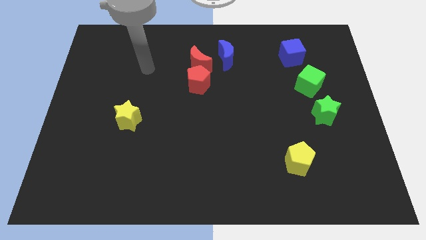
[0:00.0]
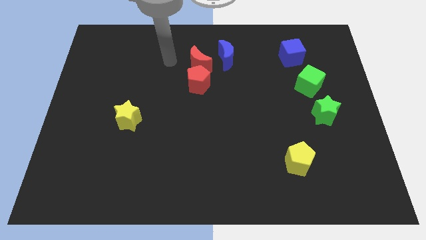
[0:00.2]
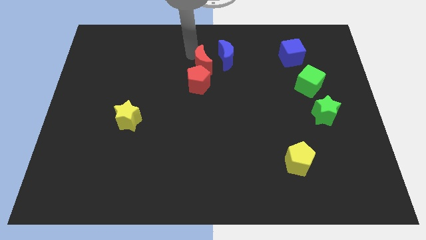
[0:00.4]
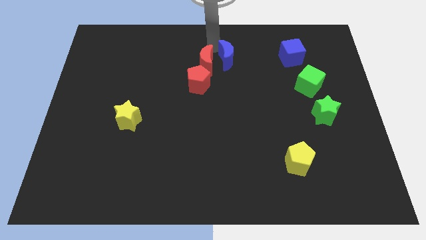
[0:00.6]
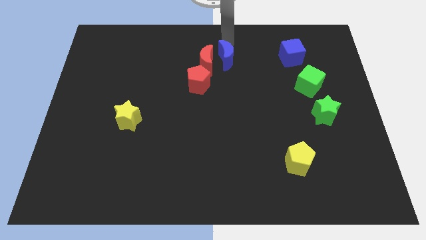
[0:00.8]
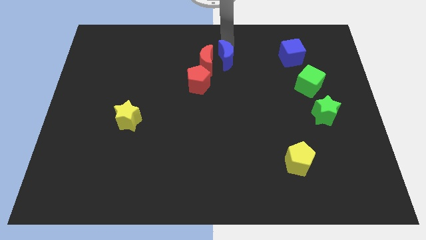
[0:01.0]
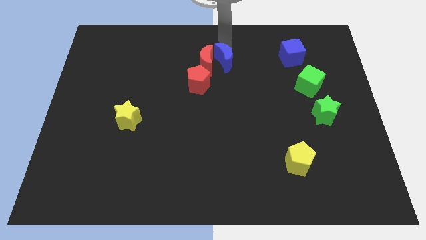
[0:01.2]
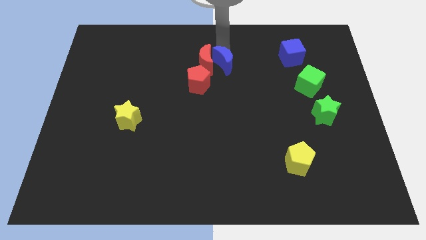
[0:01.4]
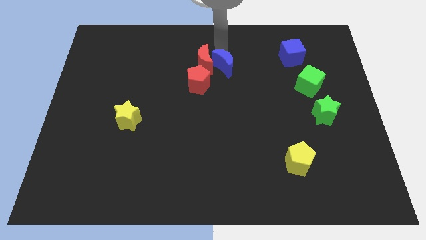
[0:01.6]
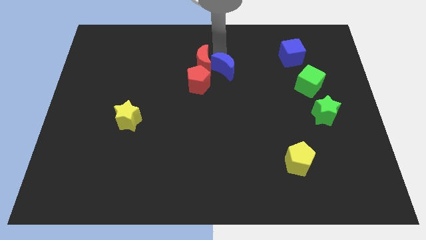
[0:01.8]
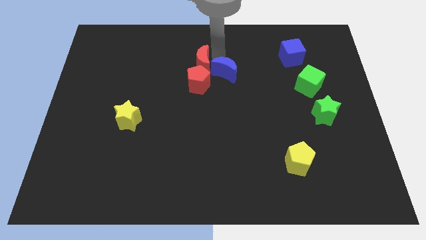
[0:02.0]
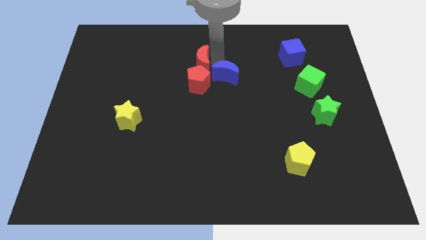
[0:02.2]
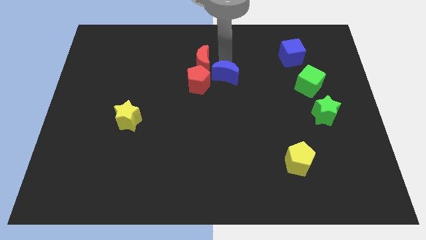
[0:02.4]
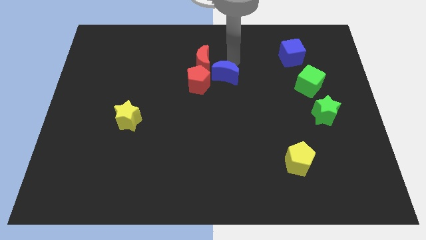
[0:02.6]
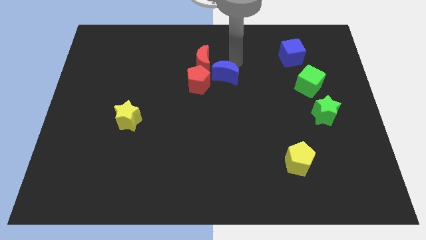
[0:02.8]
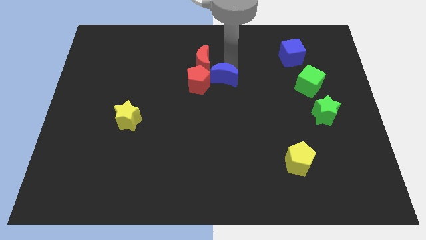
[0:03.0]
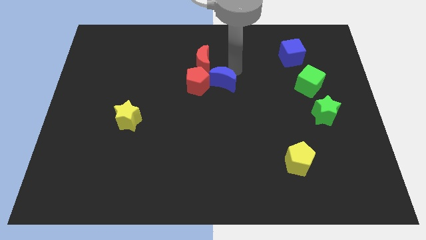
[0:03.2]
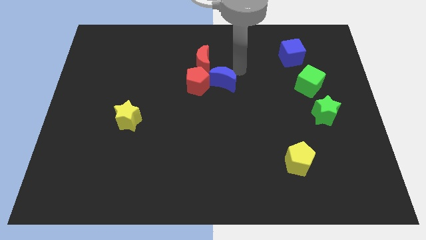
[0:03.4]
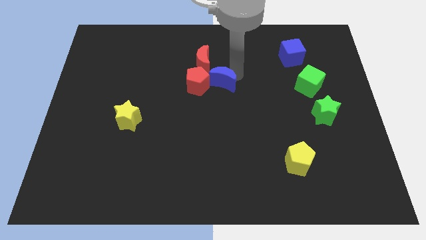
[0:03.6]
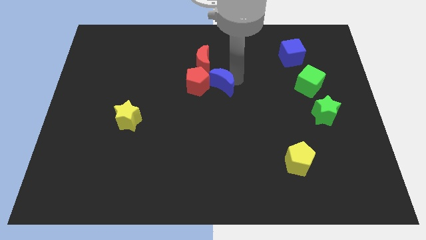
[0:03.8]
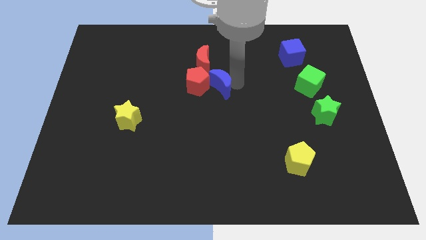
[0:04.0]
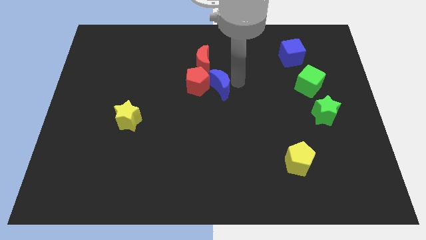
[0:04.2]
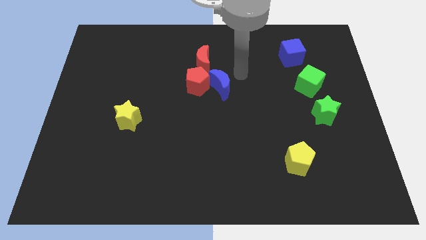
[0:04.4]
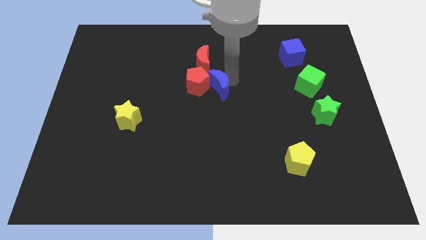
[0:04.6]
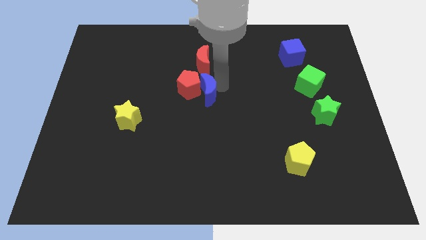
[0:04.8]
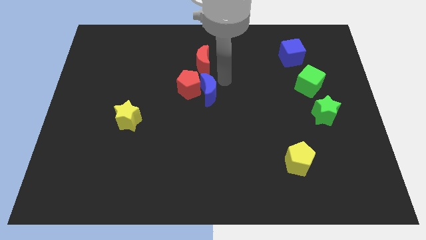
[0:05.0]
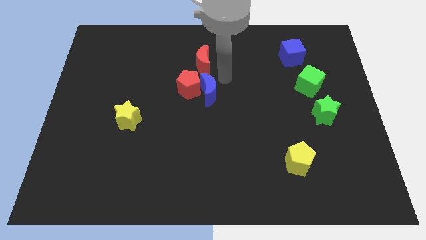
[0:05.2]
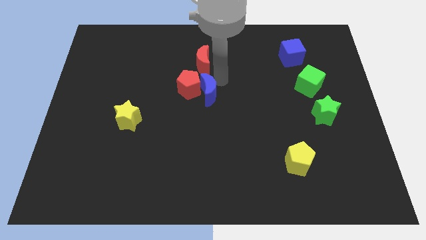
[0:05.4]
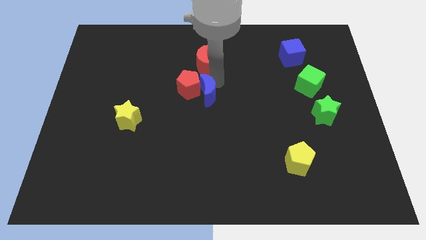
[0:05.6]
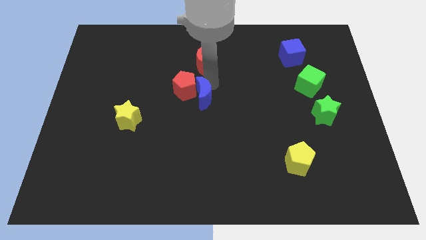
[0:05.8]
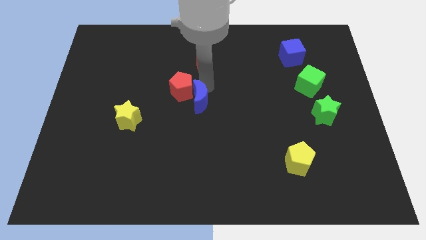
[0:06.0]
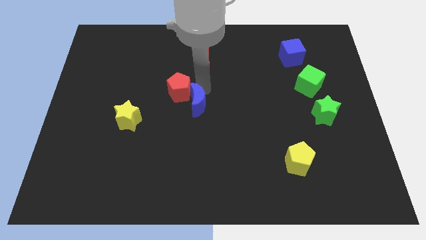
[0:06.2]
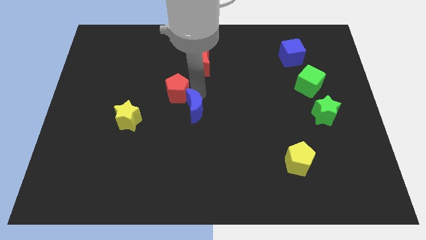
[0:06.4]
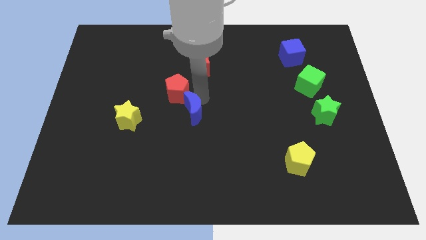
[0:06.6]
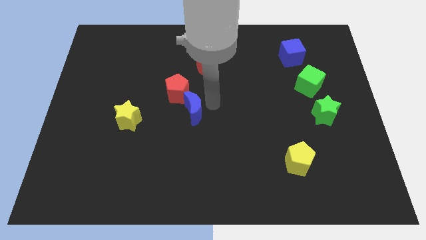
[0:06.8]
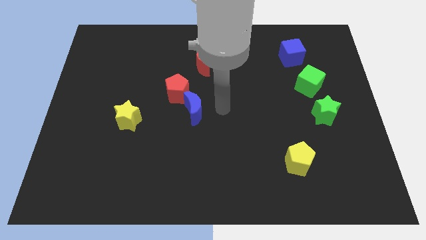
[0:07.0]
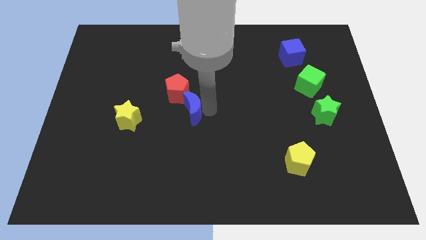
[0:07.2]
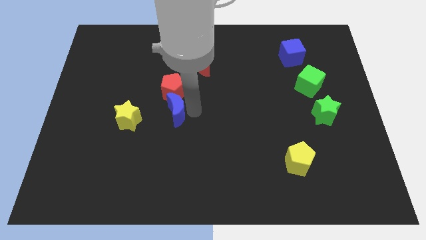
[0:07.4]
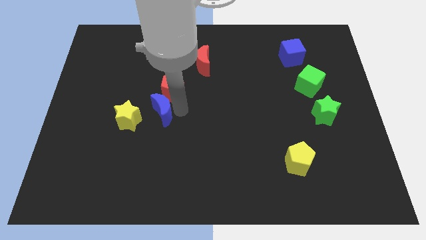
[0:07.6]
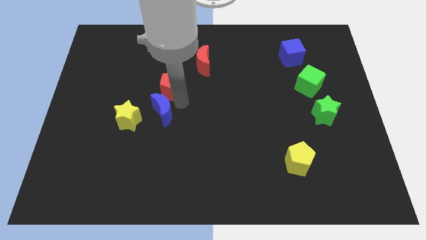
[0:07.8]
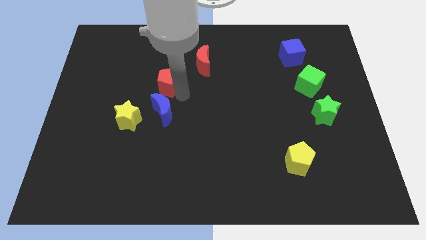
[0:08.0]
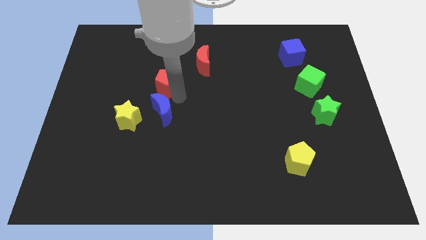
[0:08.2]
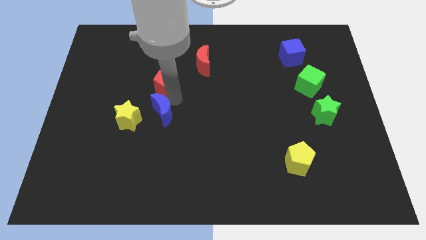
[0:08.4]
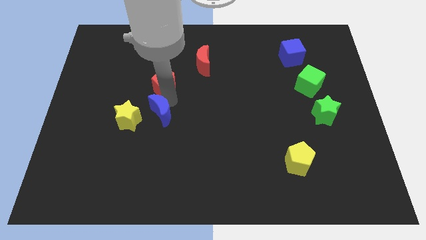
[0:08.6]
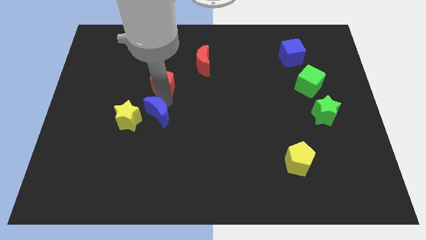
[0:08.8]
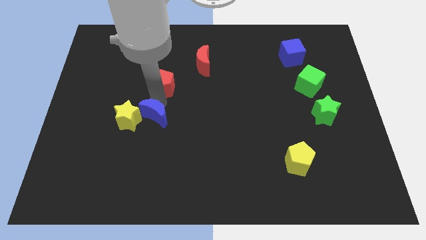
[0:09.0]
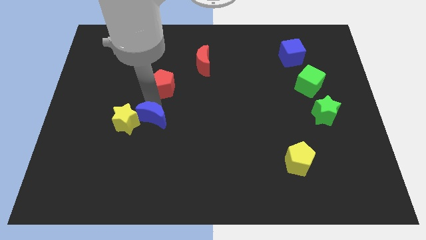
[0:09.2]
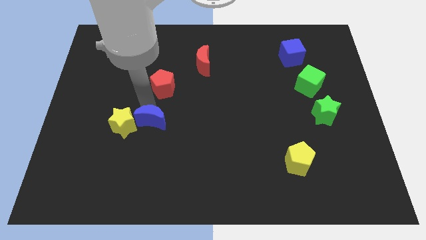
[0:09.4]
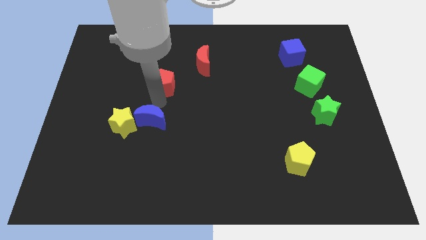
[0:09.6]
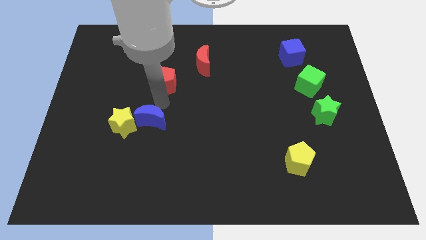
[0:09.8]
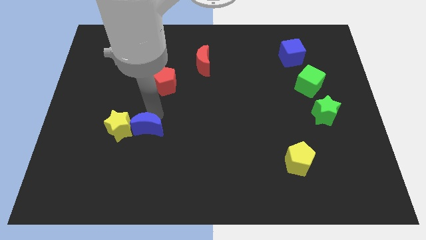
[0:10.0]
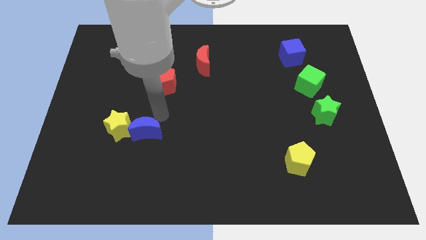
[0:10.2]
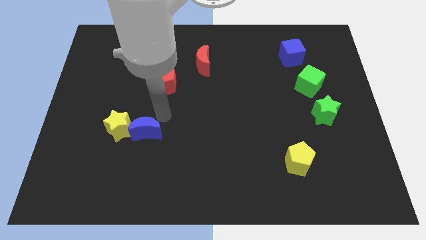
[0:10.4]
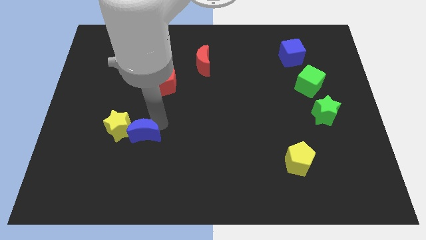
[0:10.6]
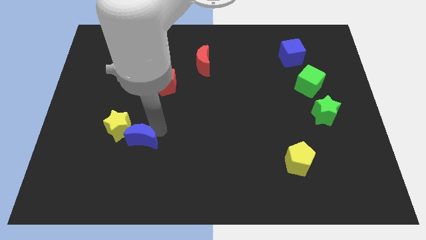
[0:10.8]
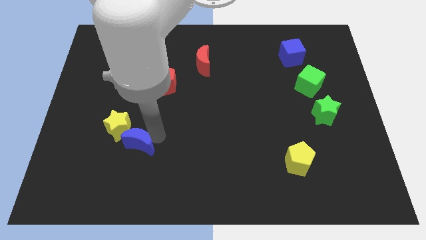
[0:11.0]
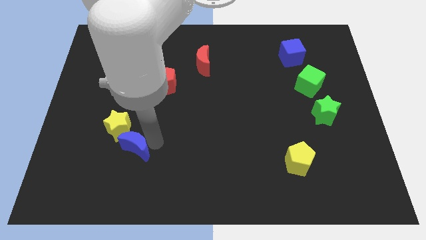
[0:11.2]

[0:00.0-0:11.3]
slide the blue moon to the bottom side of the yellow star

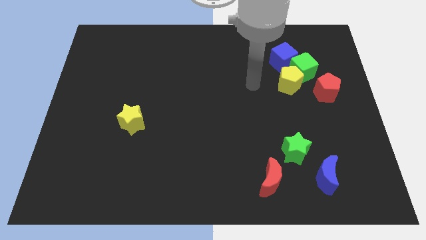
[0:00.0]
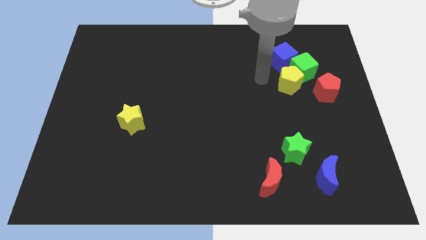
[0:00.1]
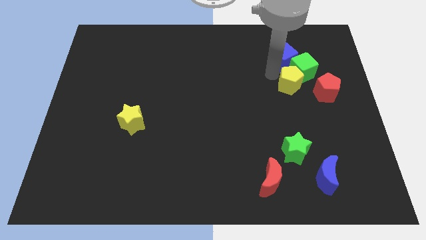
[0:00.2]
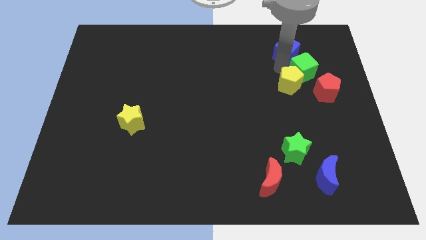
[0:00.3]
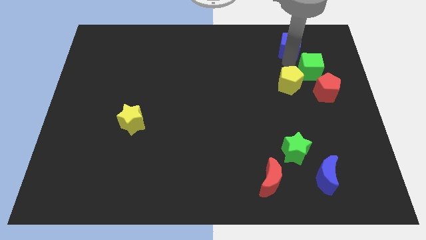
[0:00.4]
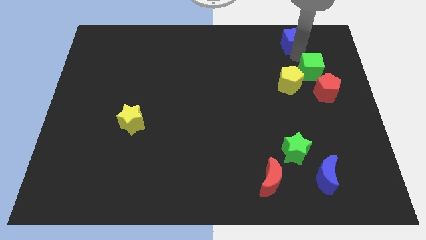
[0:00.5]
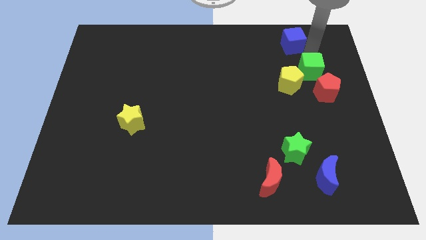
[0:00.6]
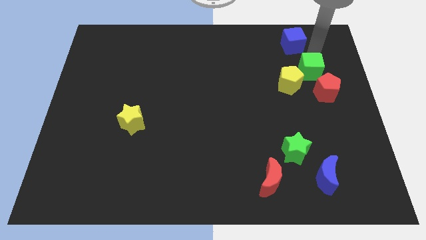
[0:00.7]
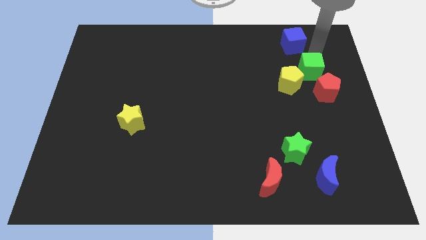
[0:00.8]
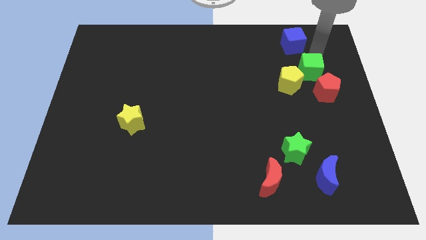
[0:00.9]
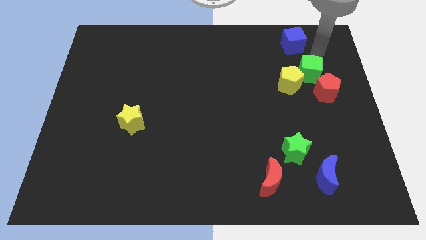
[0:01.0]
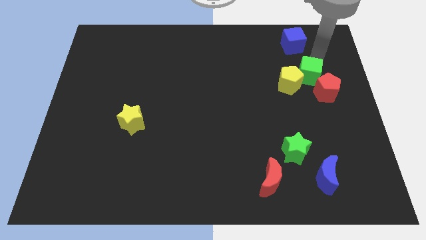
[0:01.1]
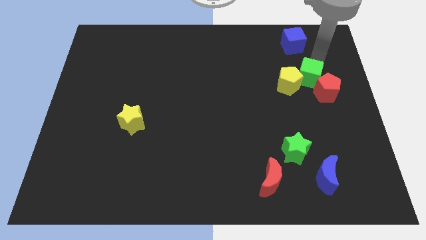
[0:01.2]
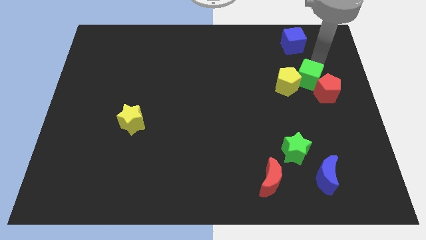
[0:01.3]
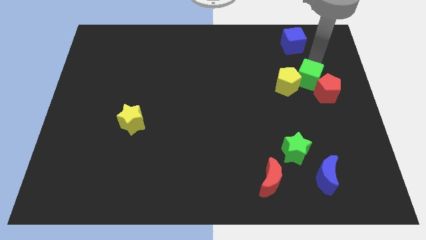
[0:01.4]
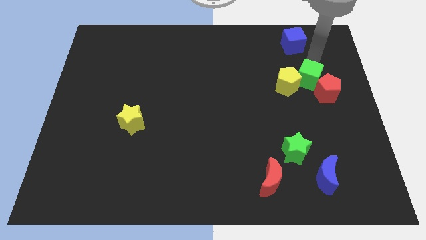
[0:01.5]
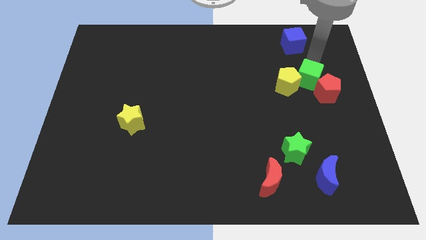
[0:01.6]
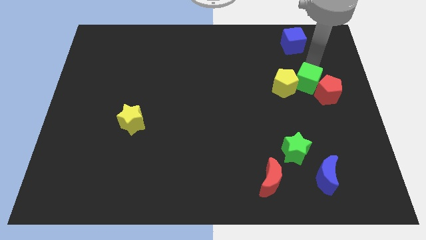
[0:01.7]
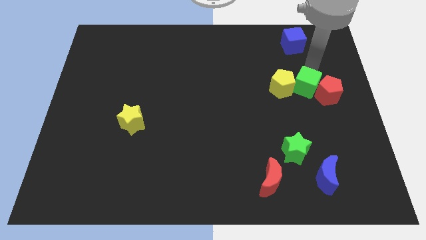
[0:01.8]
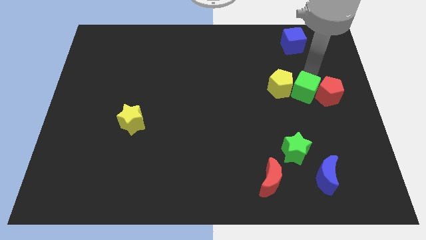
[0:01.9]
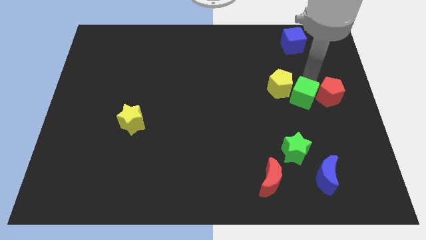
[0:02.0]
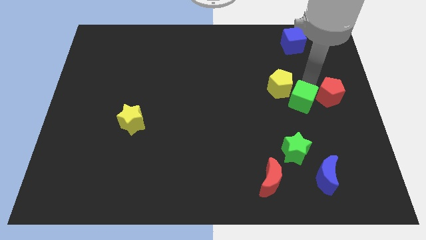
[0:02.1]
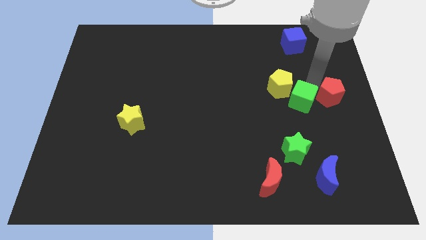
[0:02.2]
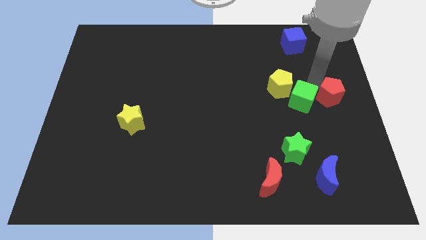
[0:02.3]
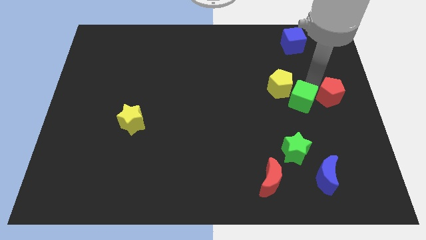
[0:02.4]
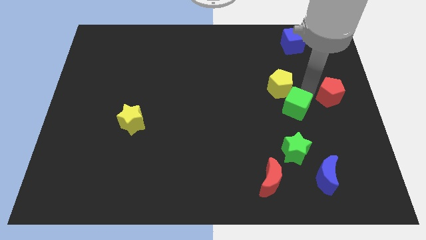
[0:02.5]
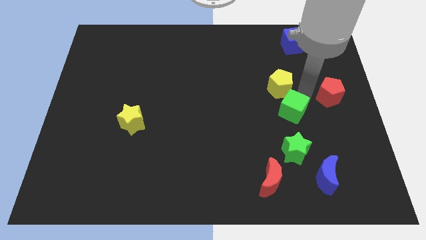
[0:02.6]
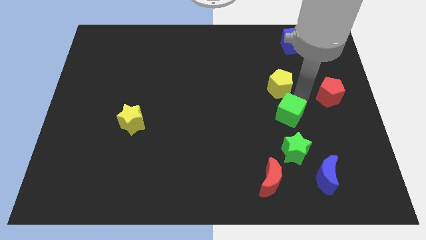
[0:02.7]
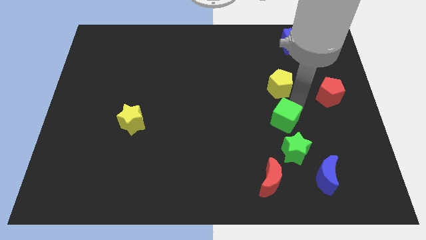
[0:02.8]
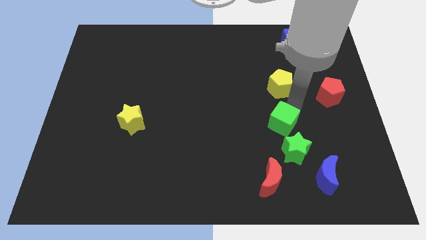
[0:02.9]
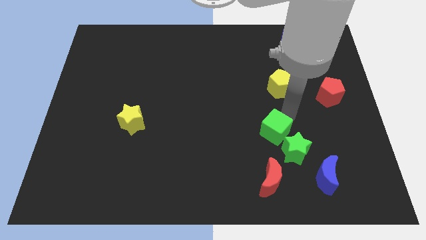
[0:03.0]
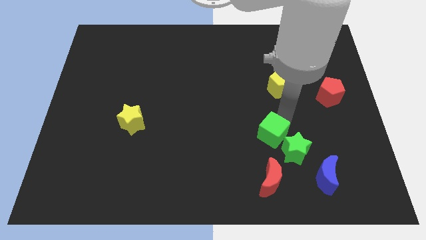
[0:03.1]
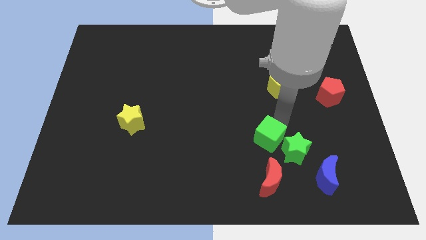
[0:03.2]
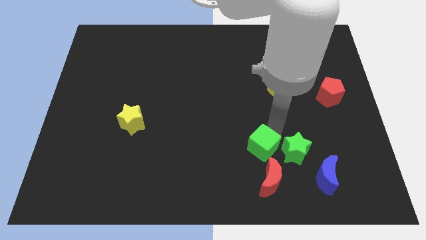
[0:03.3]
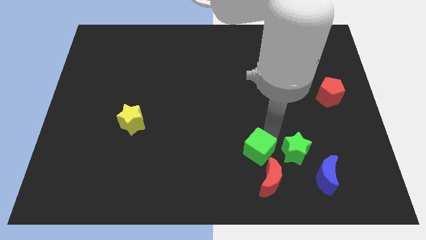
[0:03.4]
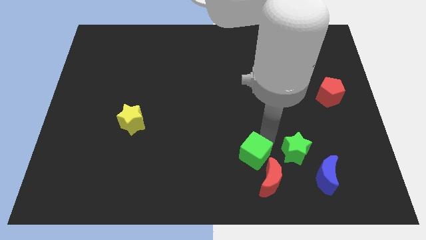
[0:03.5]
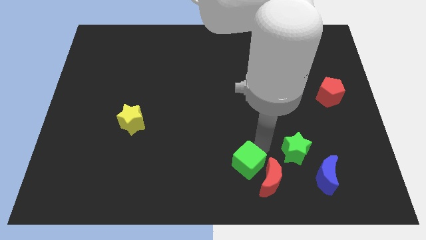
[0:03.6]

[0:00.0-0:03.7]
push the green cube to the left side of the red moon
